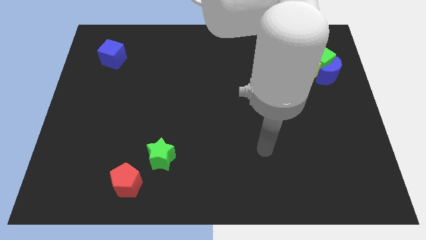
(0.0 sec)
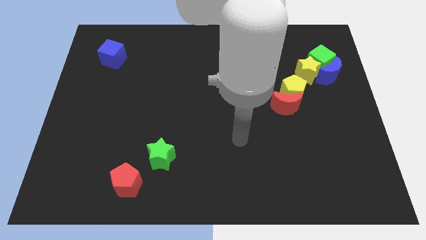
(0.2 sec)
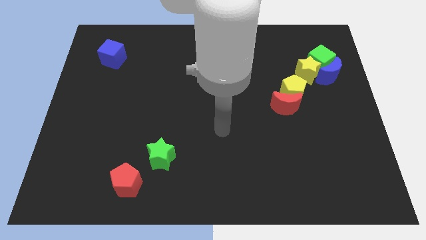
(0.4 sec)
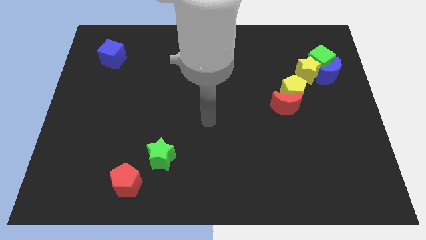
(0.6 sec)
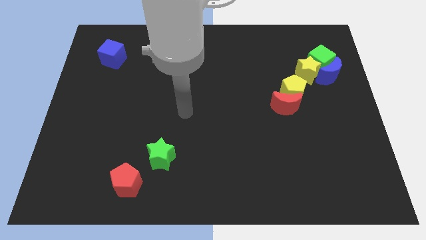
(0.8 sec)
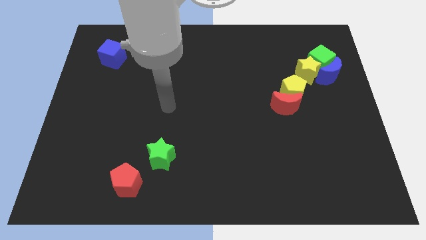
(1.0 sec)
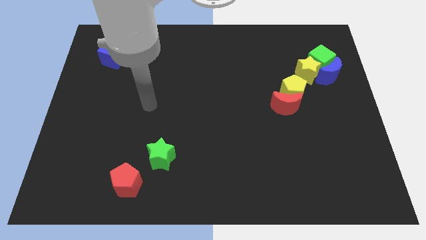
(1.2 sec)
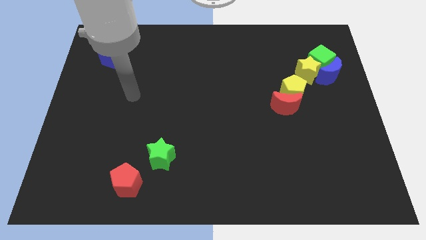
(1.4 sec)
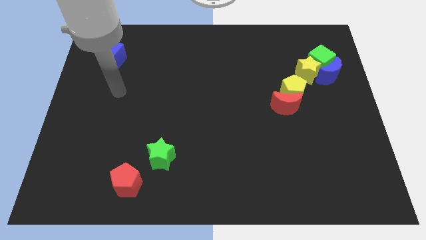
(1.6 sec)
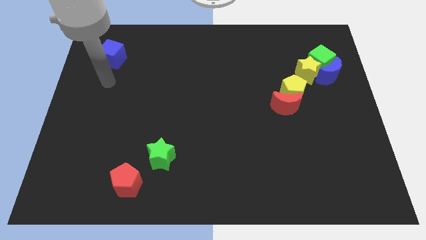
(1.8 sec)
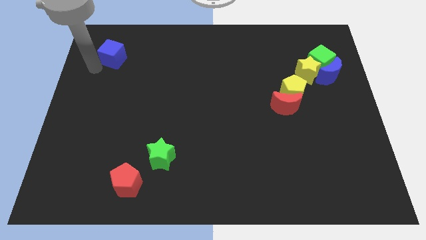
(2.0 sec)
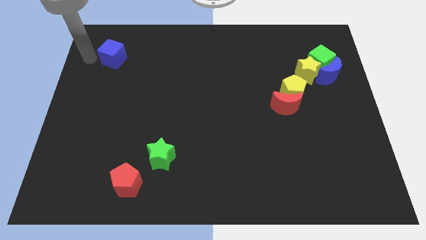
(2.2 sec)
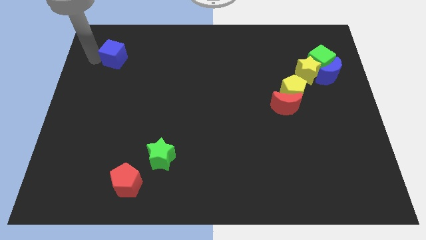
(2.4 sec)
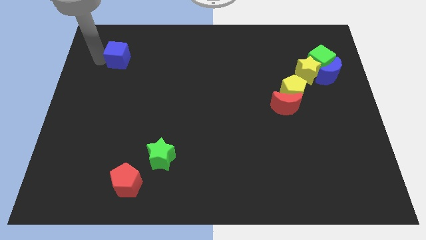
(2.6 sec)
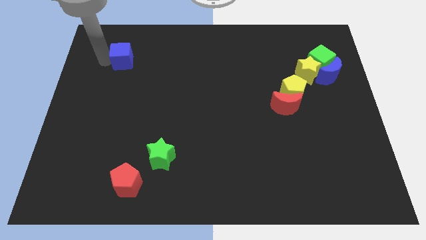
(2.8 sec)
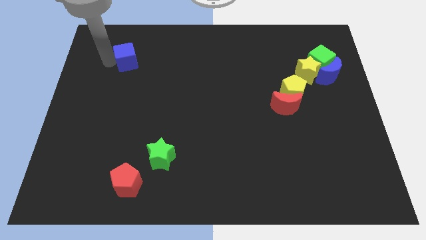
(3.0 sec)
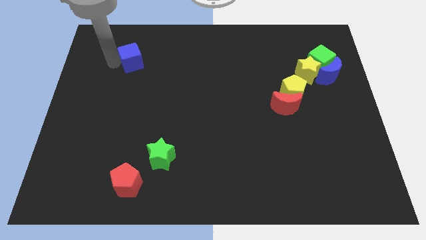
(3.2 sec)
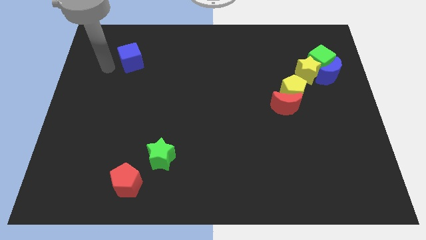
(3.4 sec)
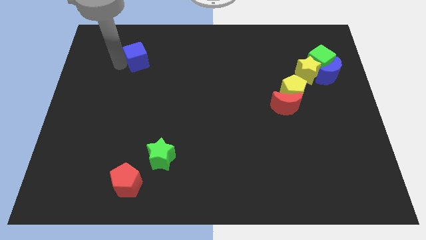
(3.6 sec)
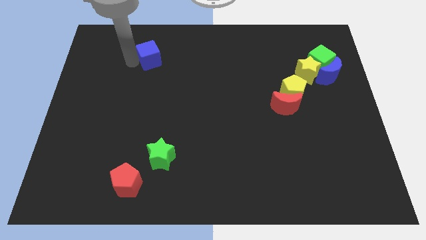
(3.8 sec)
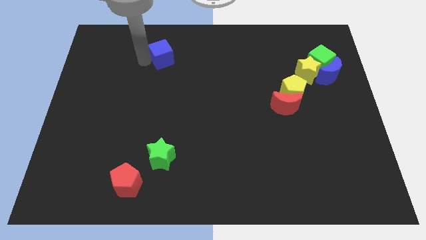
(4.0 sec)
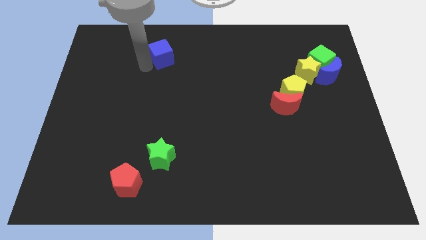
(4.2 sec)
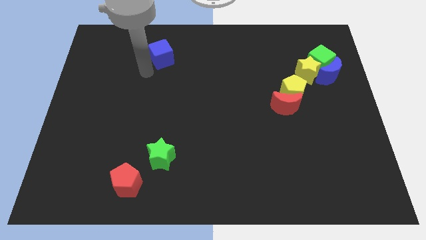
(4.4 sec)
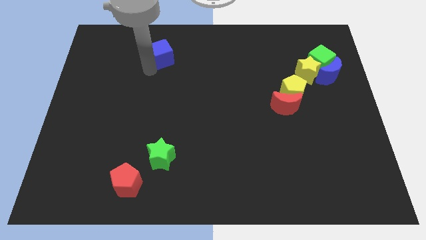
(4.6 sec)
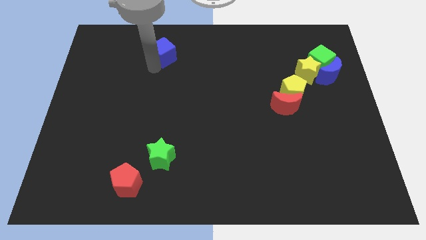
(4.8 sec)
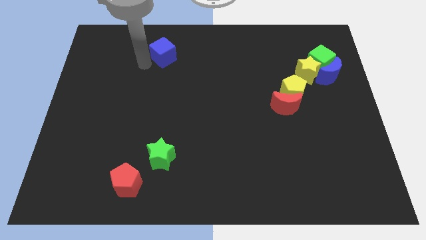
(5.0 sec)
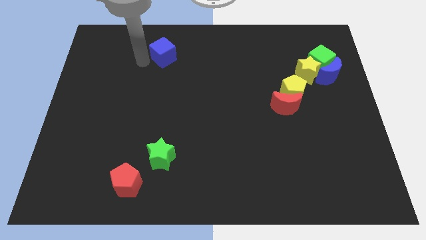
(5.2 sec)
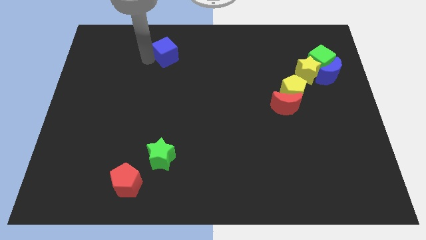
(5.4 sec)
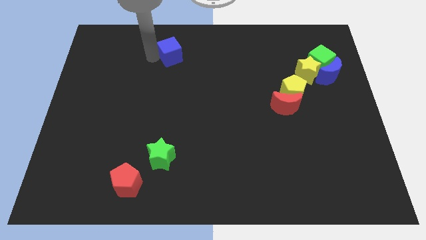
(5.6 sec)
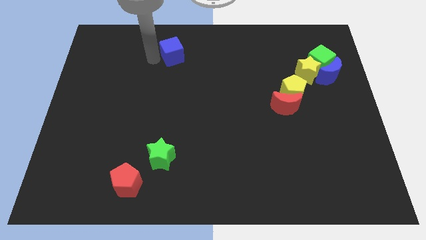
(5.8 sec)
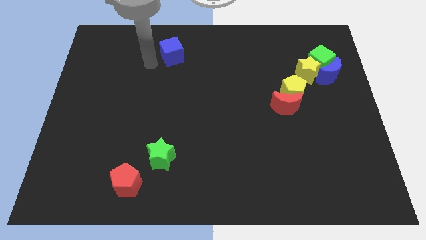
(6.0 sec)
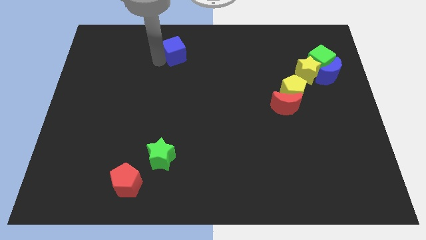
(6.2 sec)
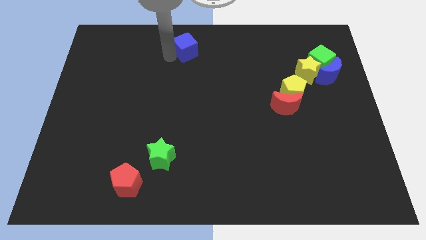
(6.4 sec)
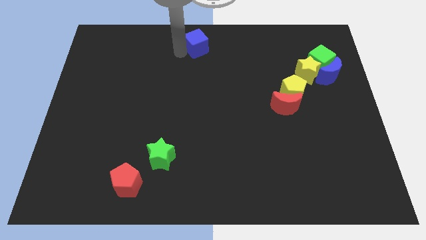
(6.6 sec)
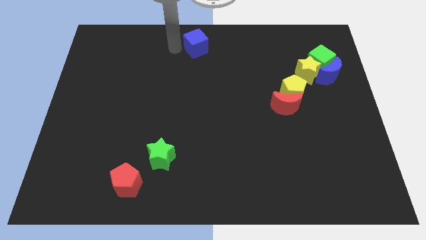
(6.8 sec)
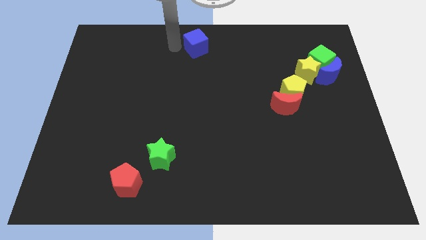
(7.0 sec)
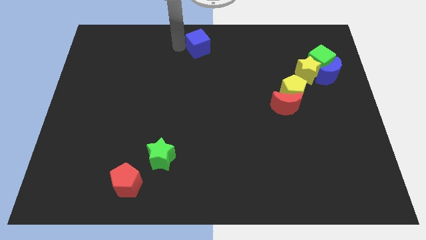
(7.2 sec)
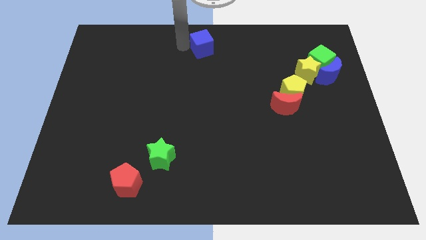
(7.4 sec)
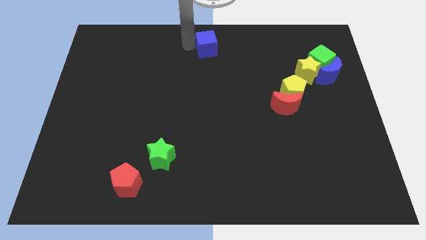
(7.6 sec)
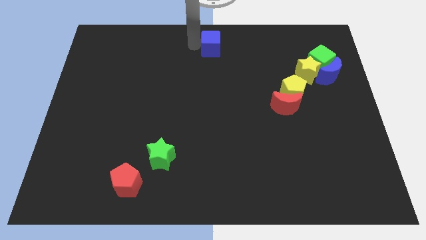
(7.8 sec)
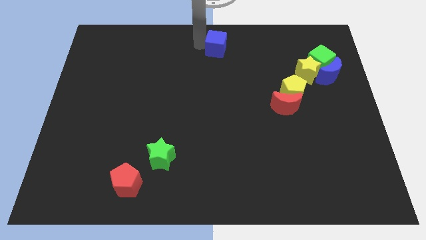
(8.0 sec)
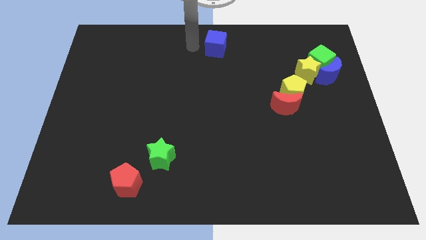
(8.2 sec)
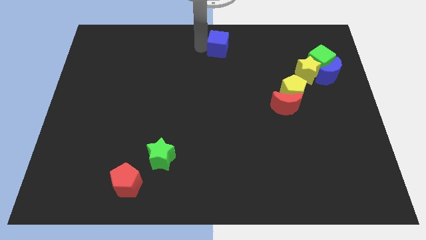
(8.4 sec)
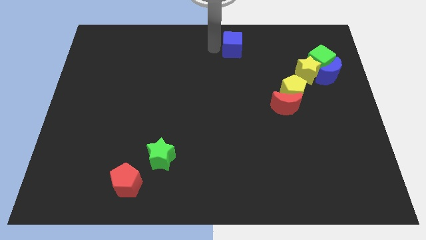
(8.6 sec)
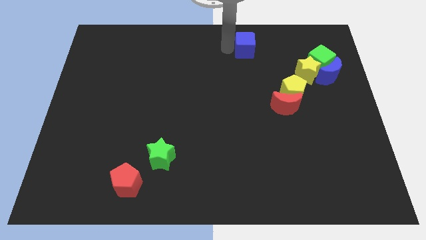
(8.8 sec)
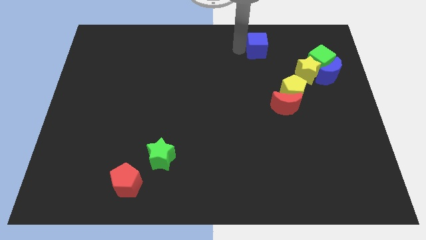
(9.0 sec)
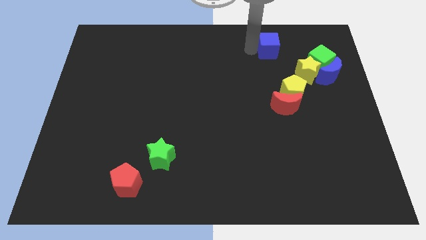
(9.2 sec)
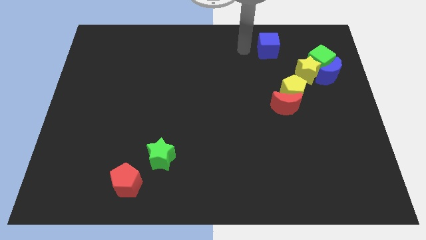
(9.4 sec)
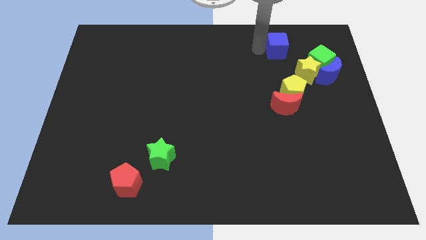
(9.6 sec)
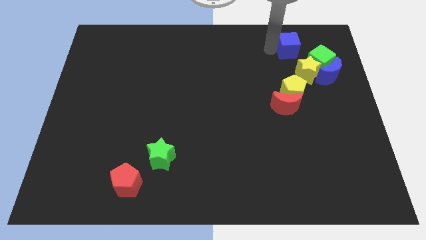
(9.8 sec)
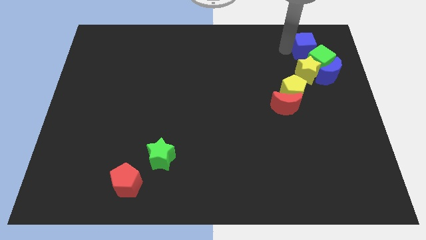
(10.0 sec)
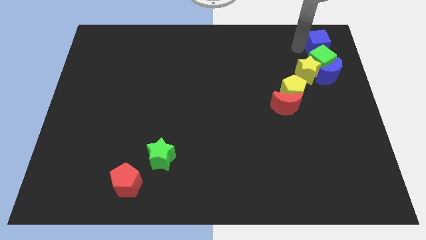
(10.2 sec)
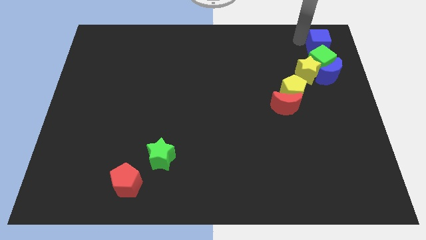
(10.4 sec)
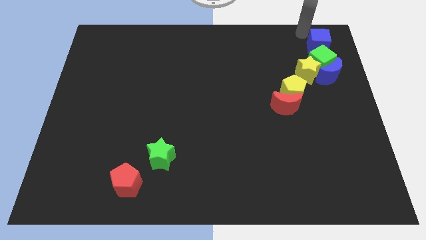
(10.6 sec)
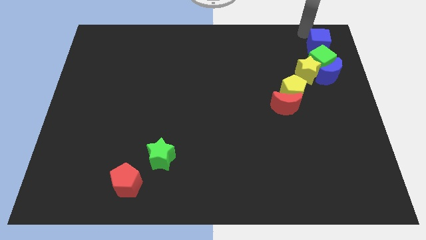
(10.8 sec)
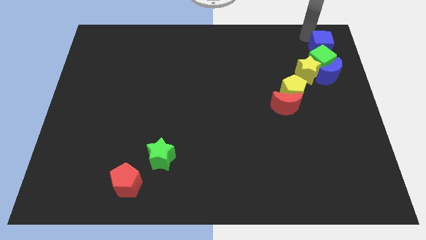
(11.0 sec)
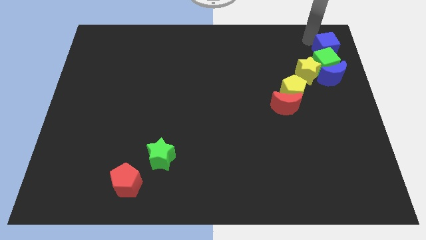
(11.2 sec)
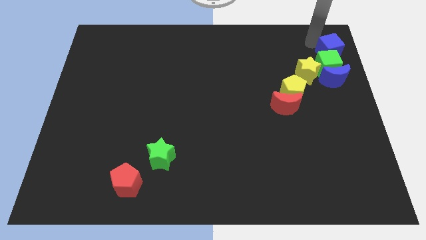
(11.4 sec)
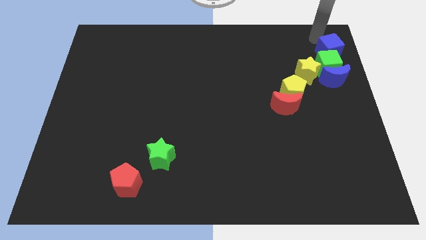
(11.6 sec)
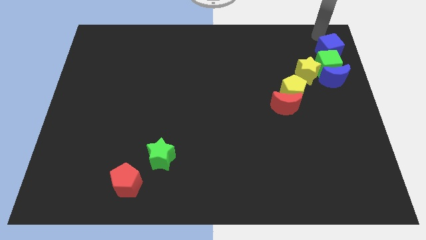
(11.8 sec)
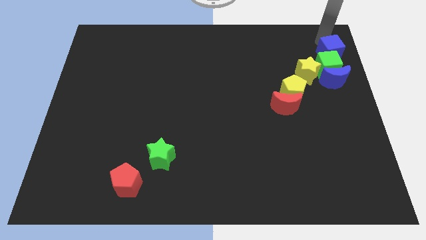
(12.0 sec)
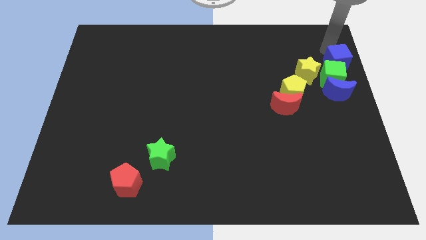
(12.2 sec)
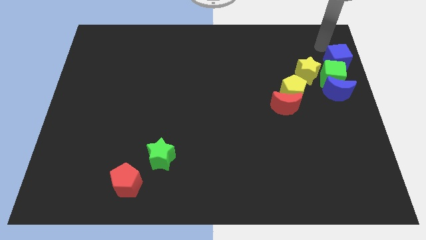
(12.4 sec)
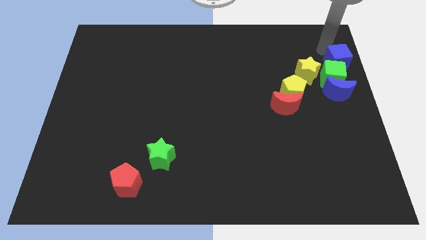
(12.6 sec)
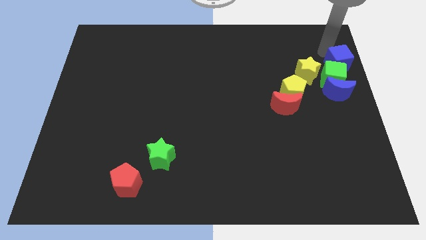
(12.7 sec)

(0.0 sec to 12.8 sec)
slide the blue cube to the center right

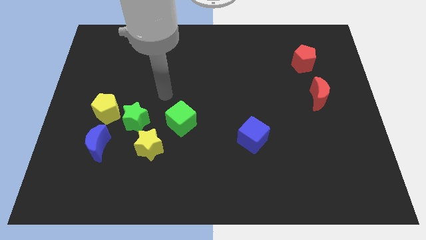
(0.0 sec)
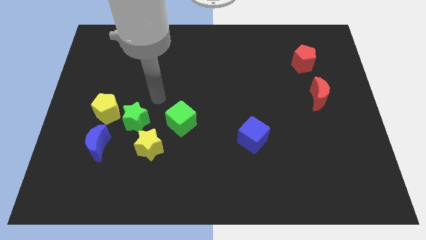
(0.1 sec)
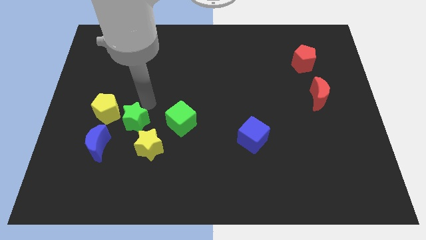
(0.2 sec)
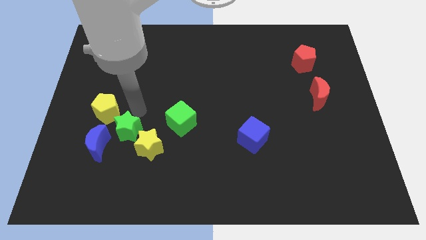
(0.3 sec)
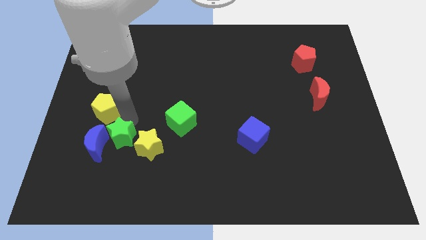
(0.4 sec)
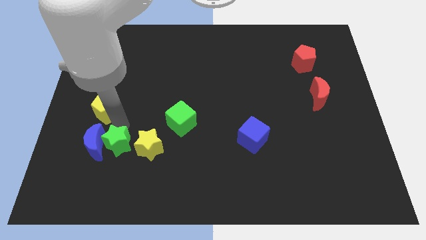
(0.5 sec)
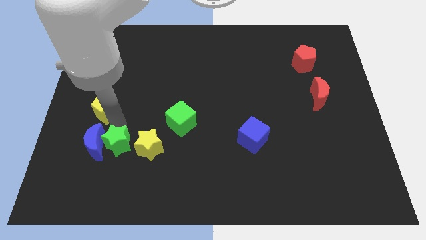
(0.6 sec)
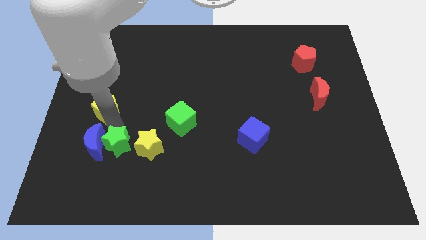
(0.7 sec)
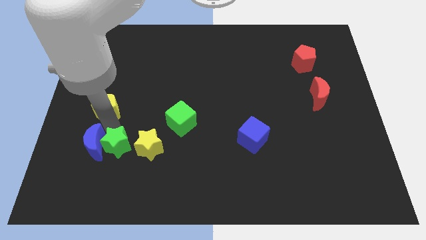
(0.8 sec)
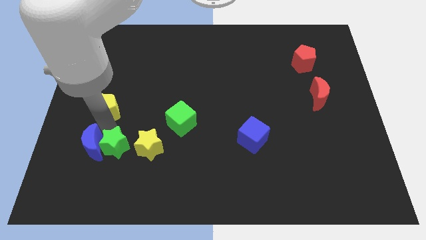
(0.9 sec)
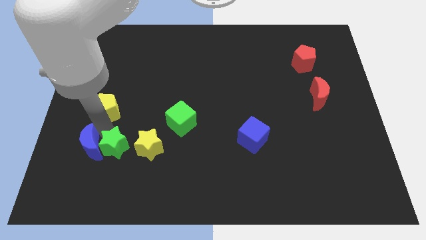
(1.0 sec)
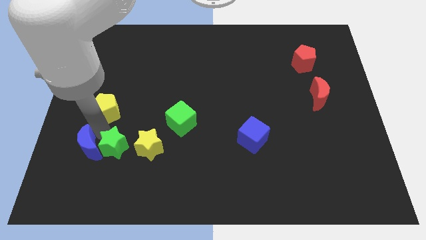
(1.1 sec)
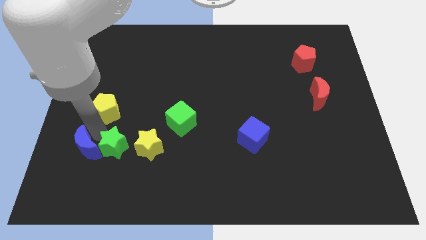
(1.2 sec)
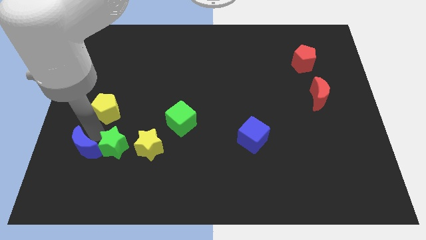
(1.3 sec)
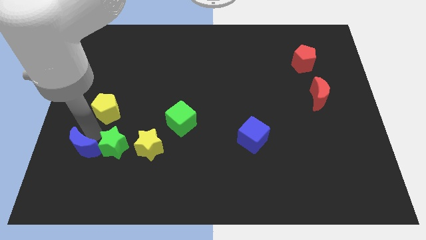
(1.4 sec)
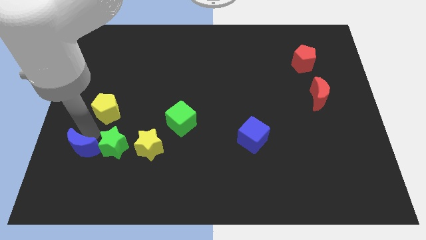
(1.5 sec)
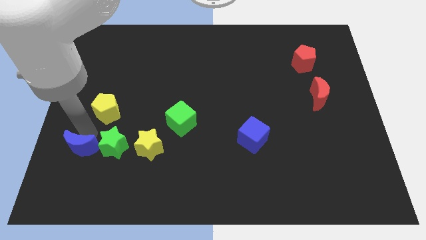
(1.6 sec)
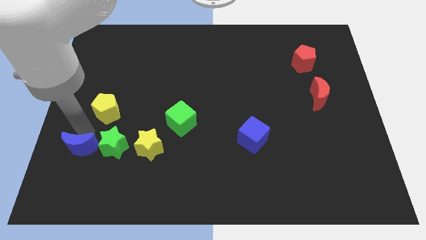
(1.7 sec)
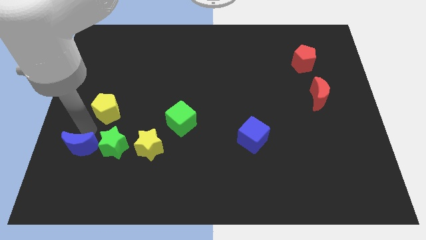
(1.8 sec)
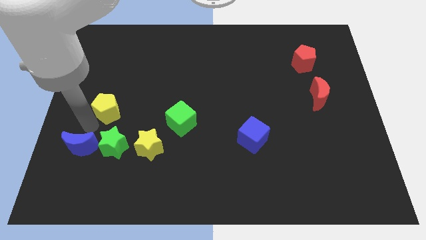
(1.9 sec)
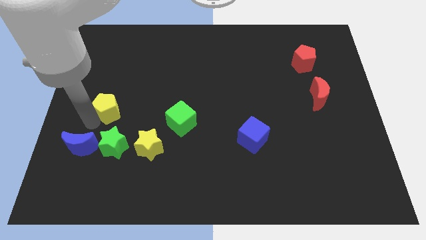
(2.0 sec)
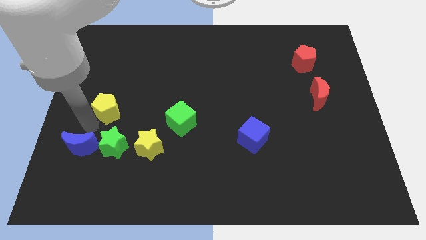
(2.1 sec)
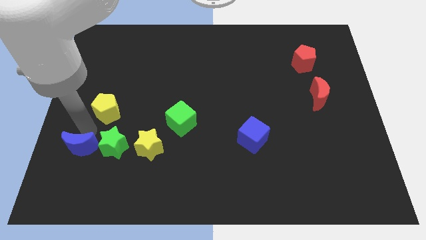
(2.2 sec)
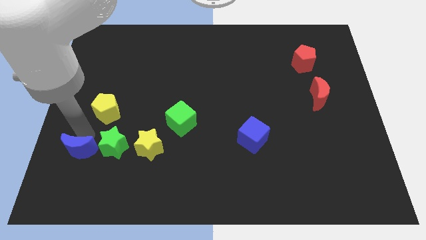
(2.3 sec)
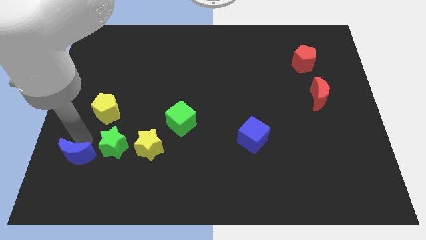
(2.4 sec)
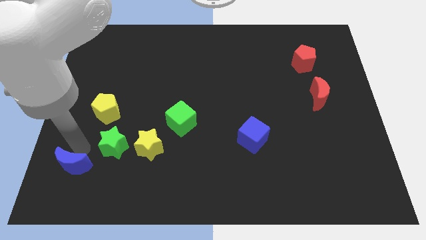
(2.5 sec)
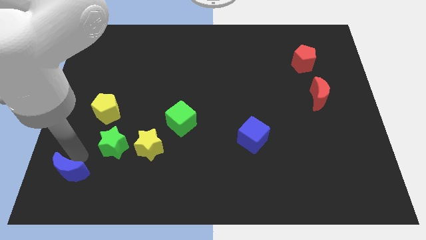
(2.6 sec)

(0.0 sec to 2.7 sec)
move the blue moon to the bottom left
